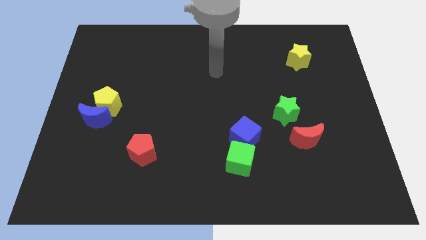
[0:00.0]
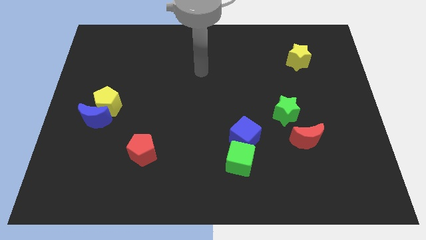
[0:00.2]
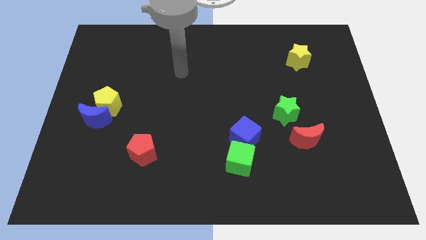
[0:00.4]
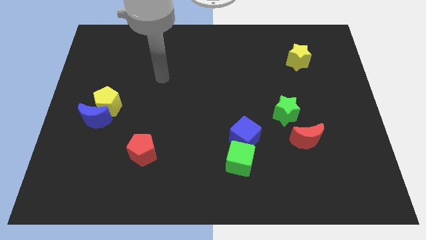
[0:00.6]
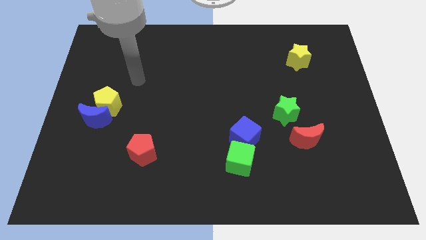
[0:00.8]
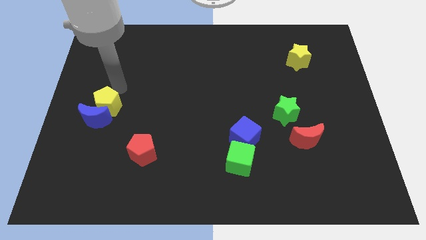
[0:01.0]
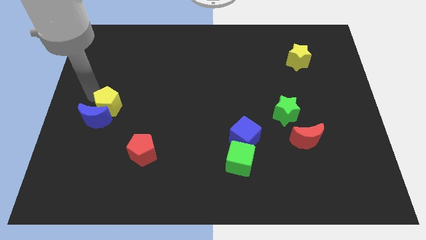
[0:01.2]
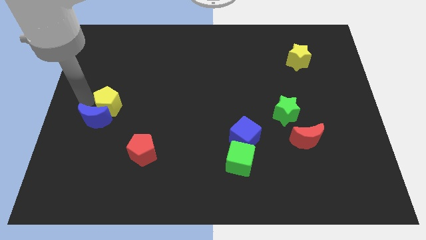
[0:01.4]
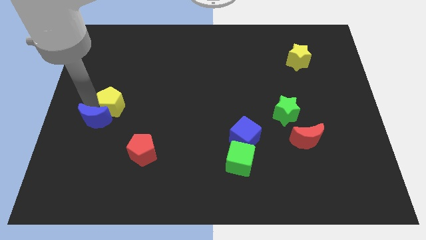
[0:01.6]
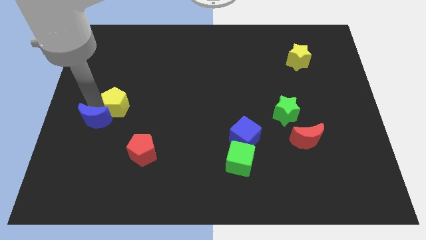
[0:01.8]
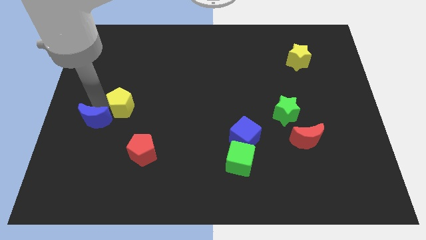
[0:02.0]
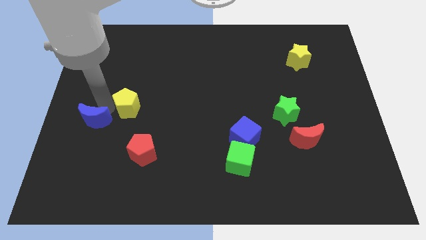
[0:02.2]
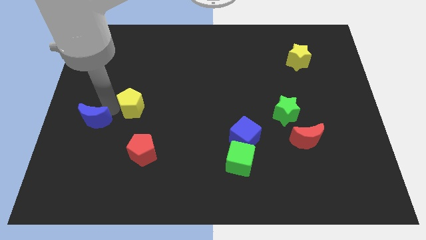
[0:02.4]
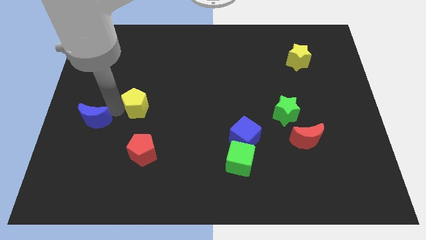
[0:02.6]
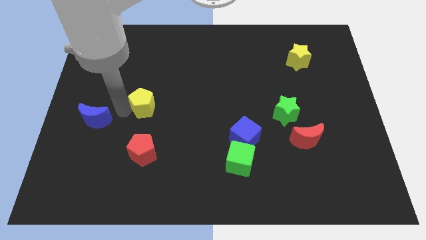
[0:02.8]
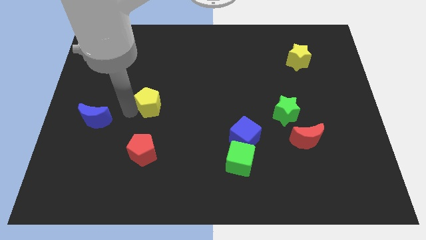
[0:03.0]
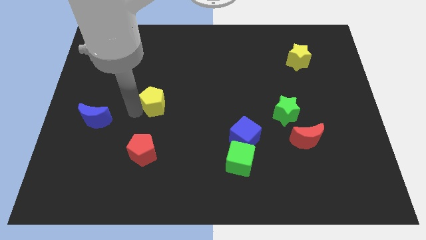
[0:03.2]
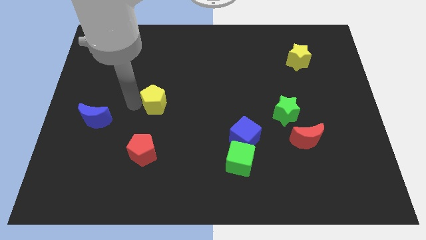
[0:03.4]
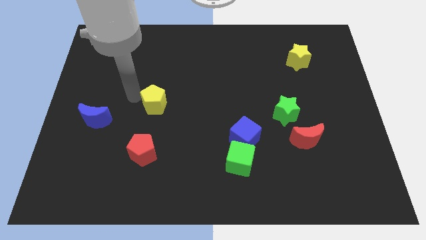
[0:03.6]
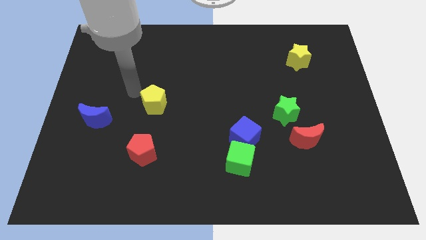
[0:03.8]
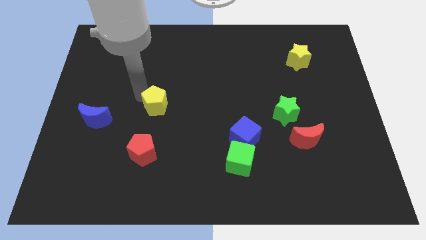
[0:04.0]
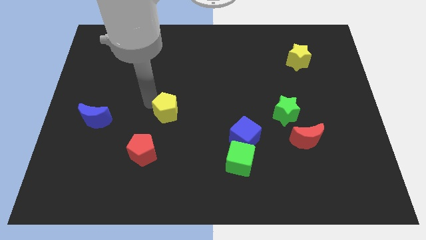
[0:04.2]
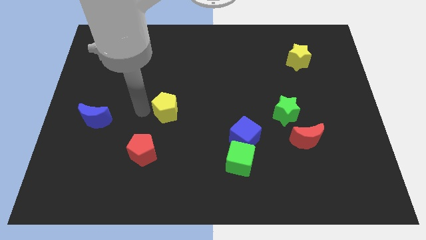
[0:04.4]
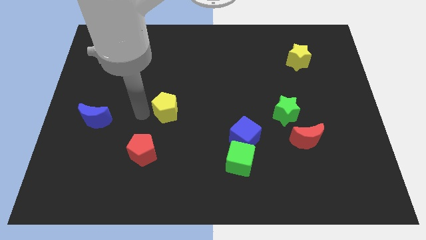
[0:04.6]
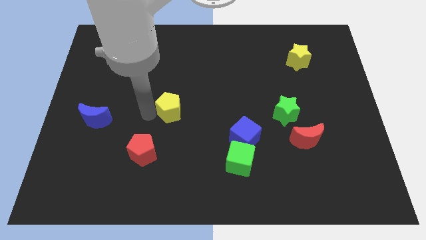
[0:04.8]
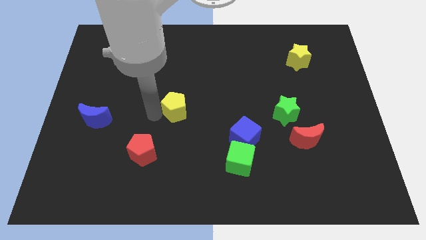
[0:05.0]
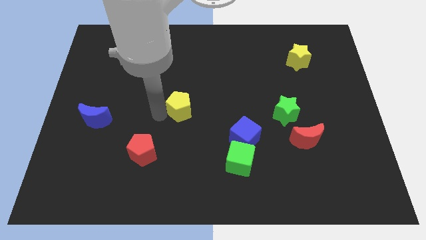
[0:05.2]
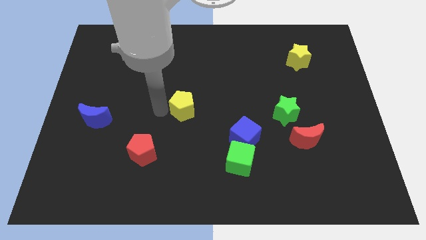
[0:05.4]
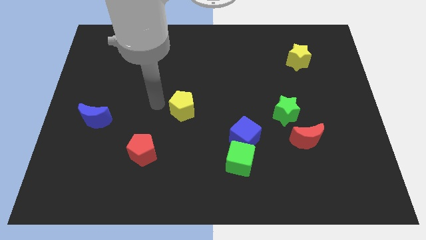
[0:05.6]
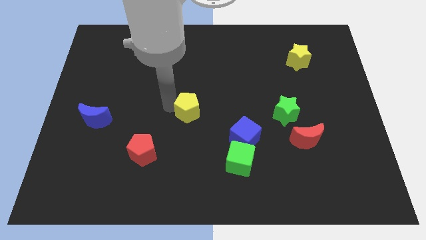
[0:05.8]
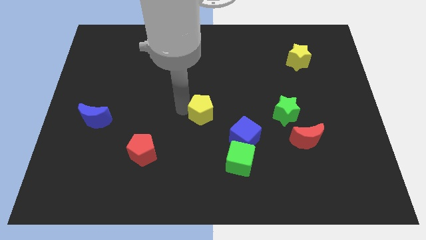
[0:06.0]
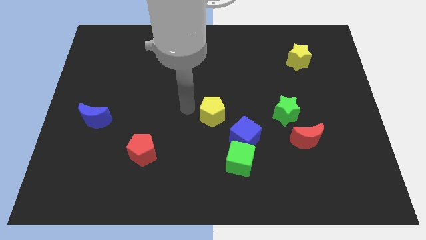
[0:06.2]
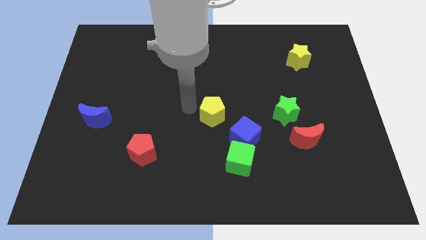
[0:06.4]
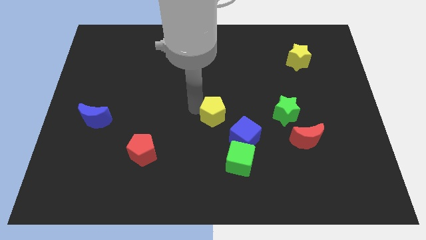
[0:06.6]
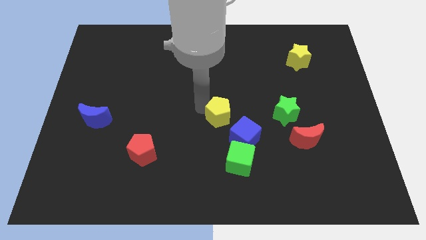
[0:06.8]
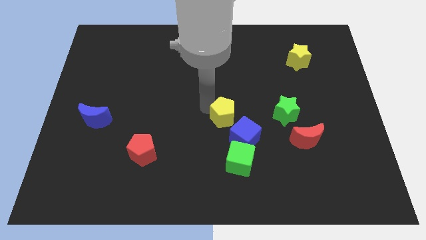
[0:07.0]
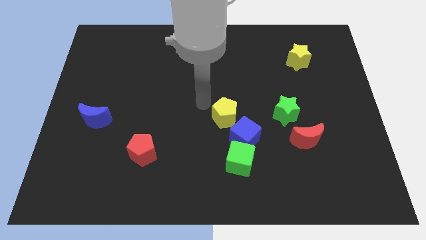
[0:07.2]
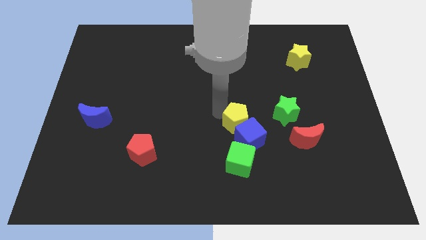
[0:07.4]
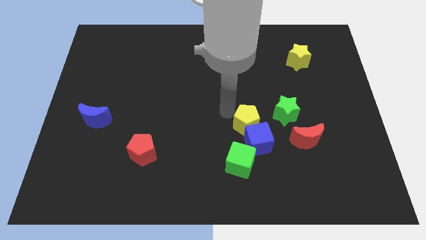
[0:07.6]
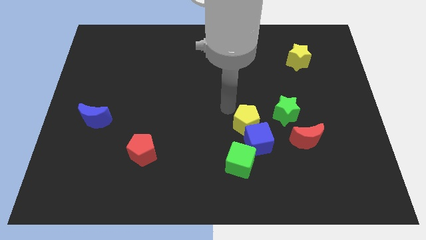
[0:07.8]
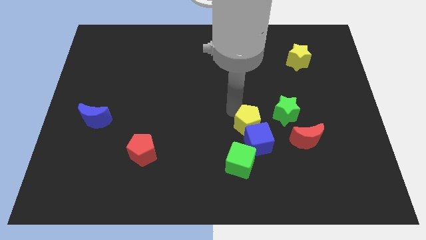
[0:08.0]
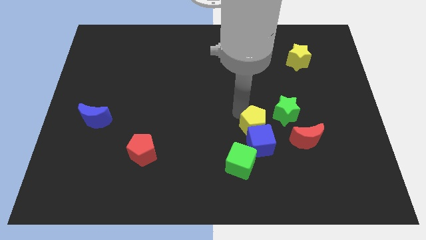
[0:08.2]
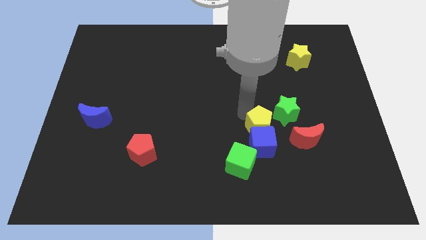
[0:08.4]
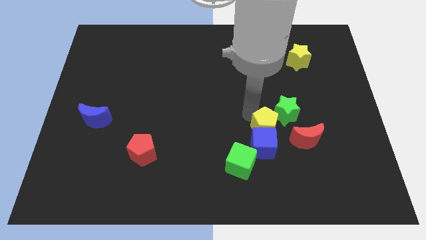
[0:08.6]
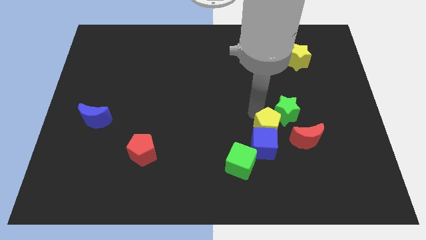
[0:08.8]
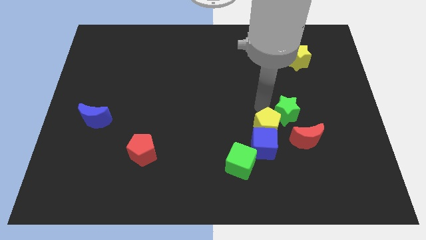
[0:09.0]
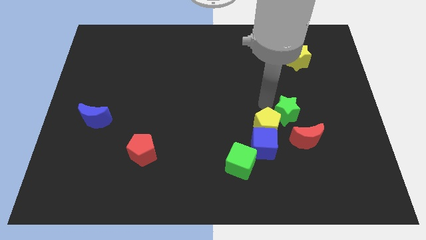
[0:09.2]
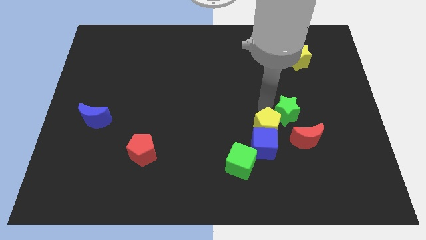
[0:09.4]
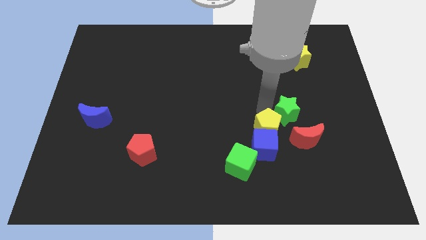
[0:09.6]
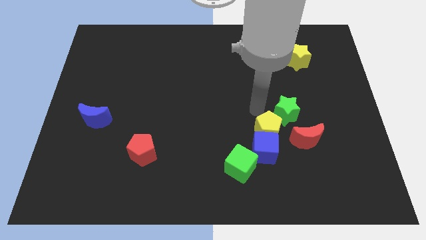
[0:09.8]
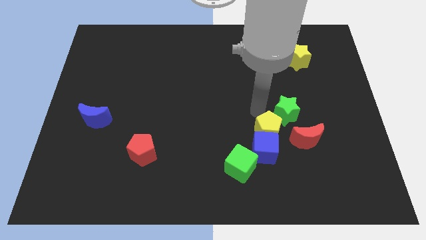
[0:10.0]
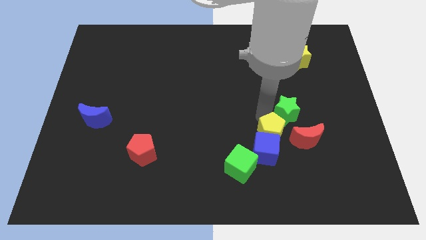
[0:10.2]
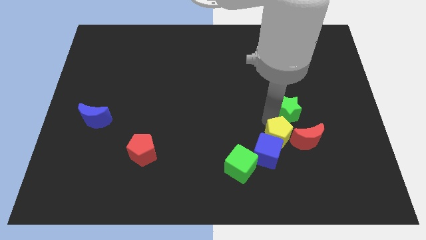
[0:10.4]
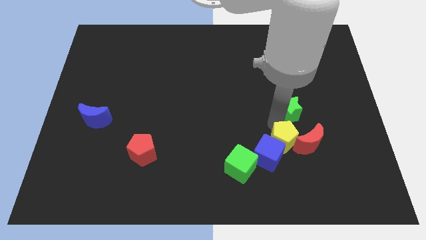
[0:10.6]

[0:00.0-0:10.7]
put the yellow pentagon diagonally down and to the left of the red moon

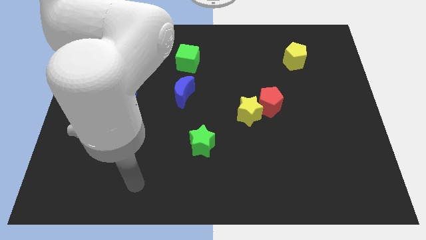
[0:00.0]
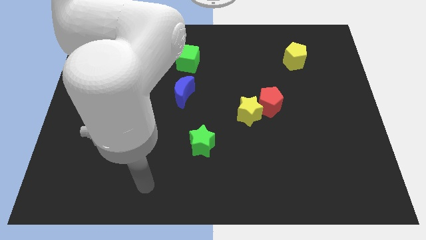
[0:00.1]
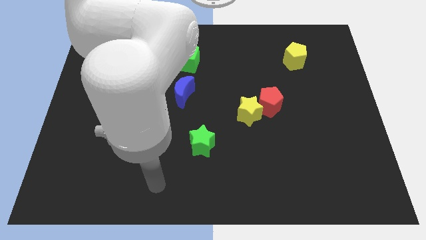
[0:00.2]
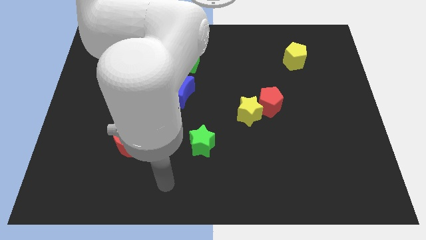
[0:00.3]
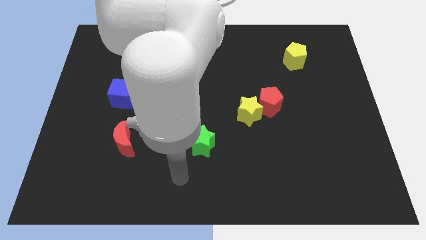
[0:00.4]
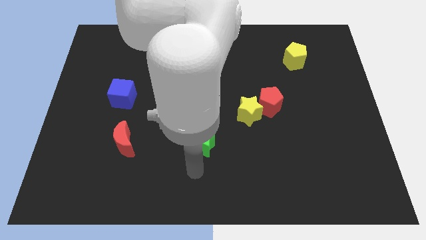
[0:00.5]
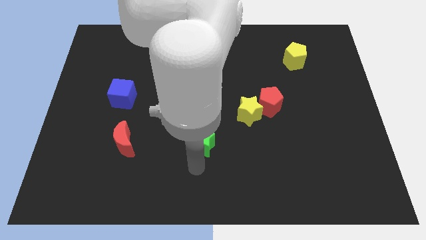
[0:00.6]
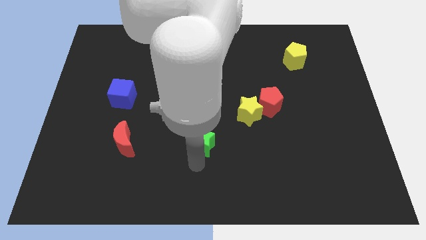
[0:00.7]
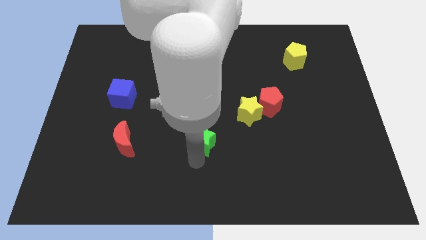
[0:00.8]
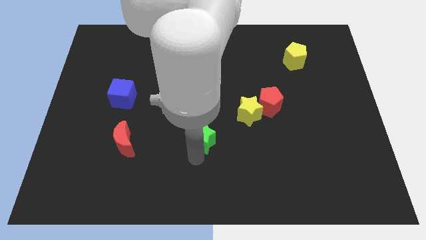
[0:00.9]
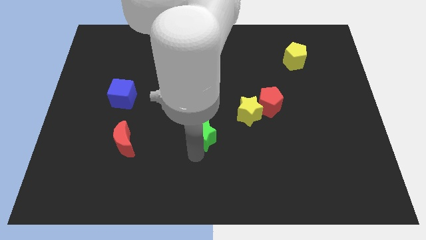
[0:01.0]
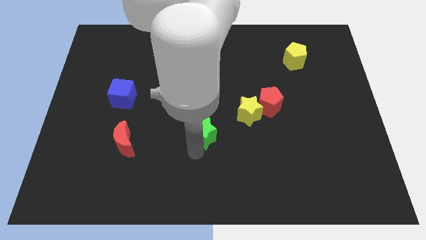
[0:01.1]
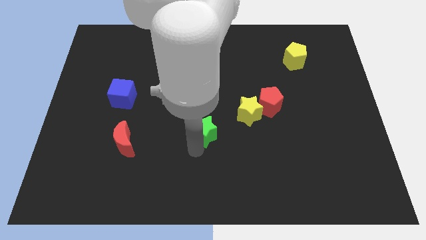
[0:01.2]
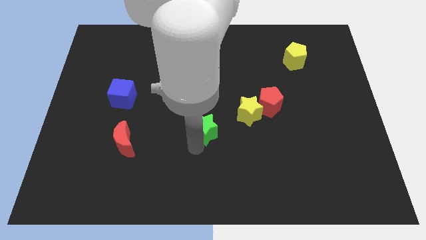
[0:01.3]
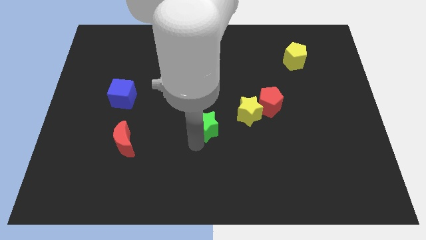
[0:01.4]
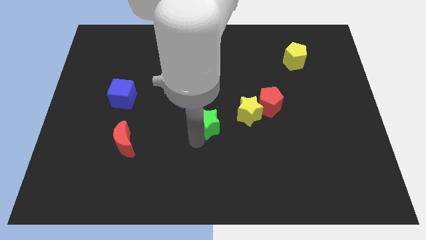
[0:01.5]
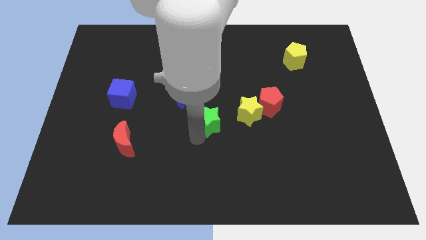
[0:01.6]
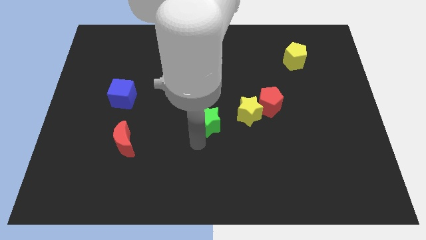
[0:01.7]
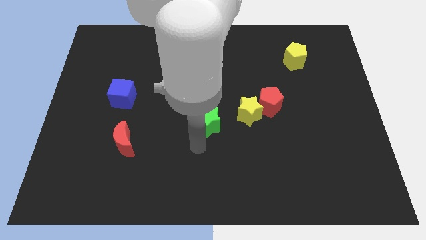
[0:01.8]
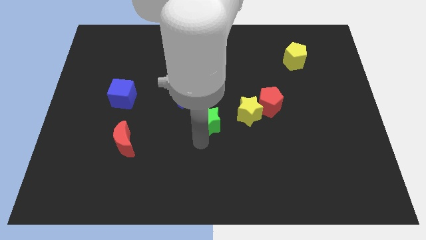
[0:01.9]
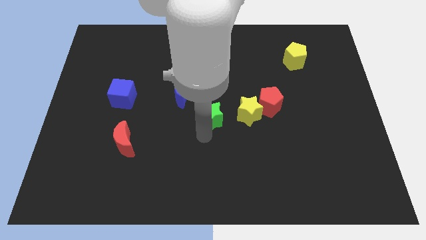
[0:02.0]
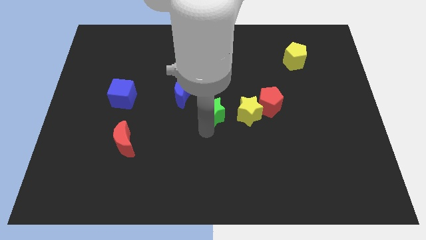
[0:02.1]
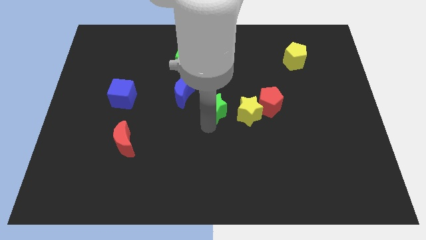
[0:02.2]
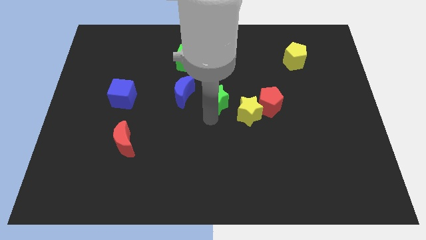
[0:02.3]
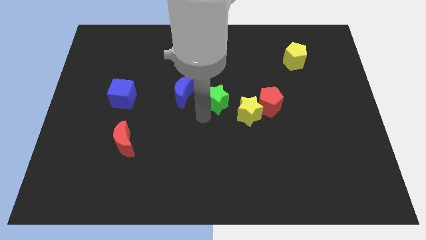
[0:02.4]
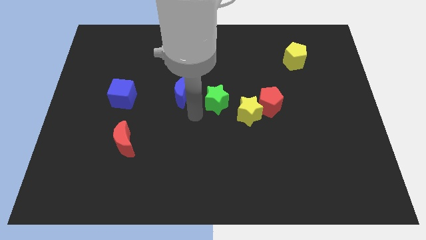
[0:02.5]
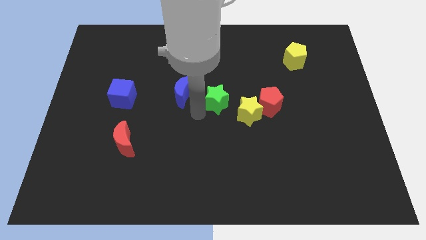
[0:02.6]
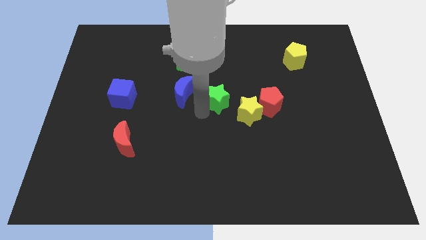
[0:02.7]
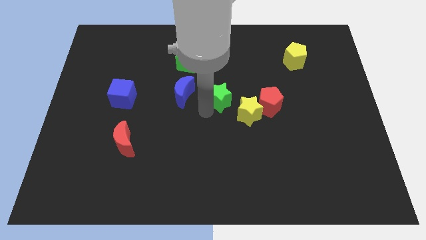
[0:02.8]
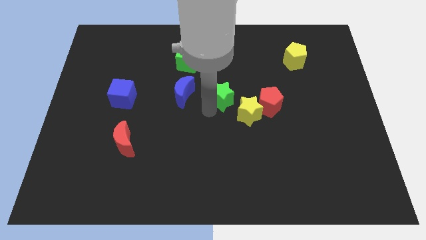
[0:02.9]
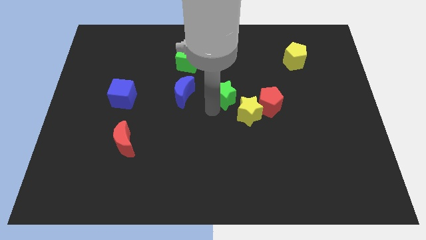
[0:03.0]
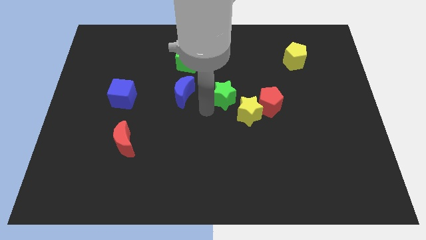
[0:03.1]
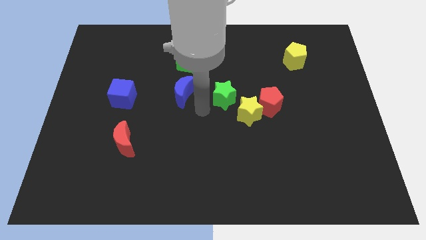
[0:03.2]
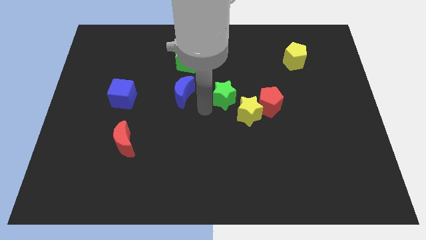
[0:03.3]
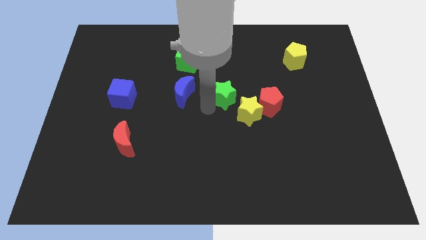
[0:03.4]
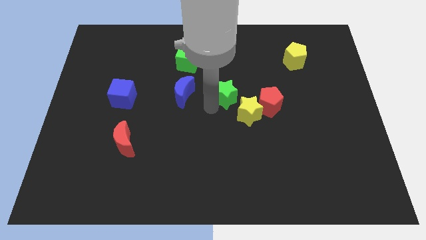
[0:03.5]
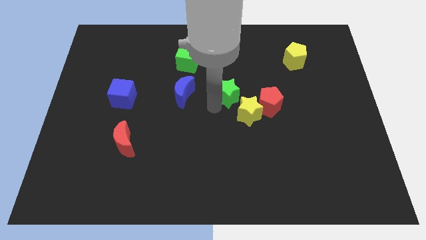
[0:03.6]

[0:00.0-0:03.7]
push the green star to the top left side of the red pentagon
